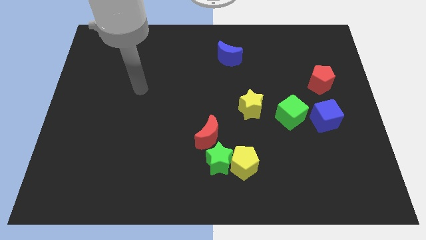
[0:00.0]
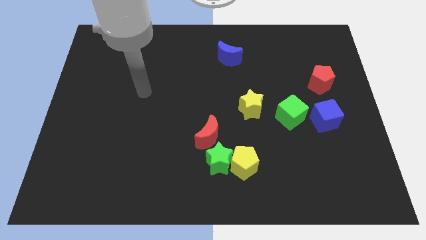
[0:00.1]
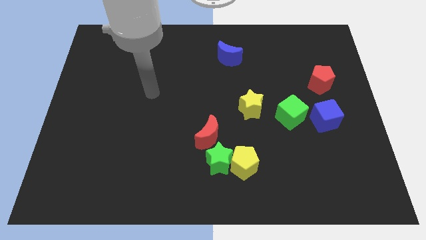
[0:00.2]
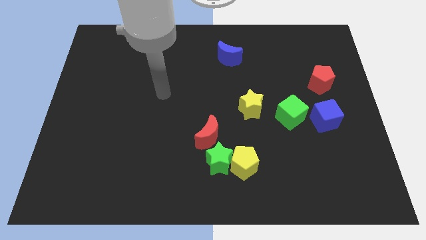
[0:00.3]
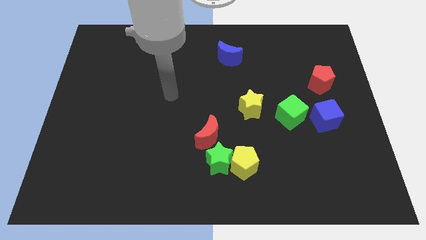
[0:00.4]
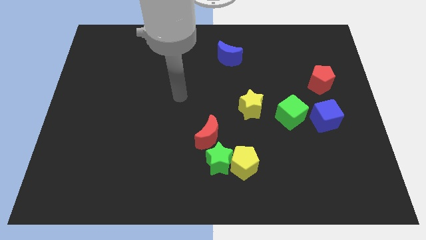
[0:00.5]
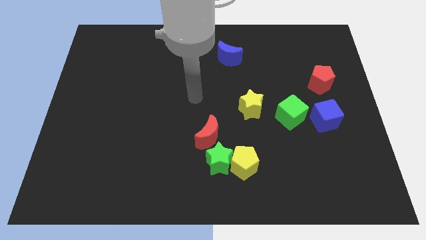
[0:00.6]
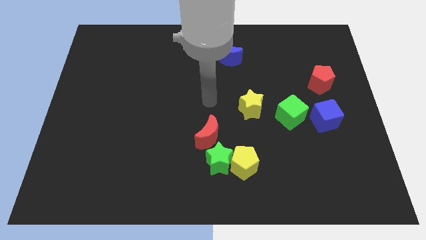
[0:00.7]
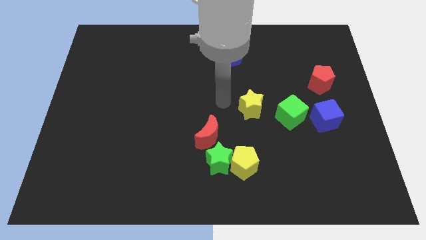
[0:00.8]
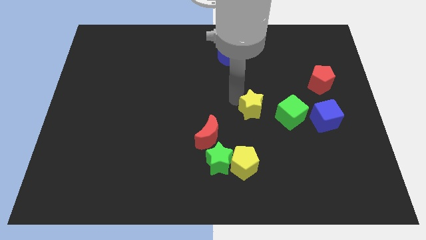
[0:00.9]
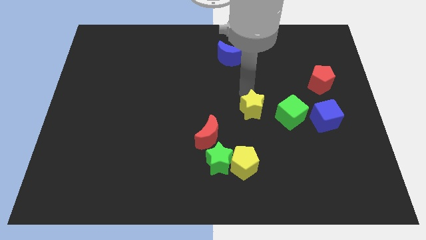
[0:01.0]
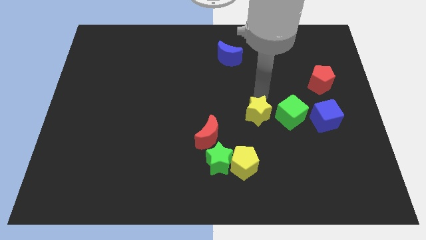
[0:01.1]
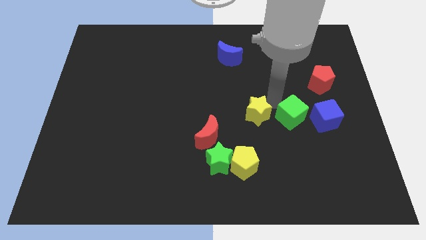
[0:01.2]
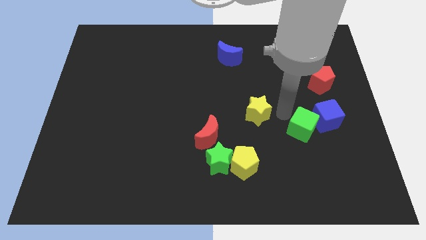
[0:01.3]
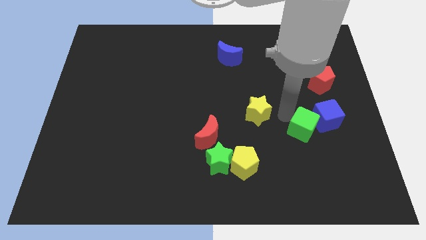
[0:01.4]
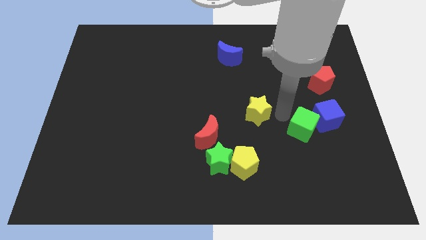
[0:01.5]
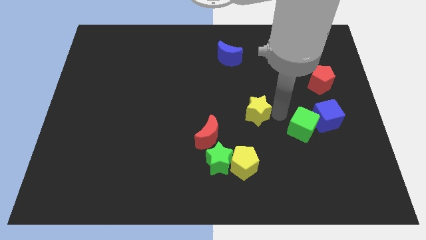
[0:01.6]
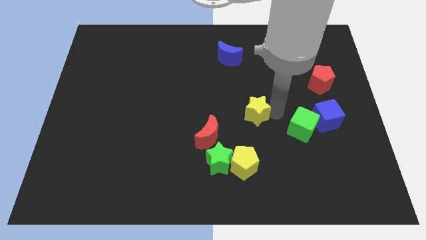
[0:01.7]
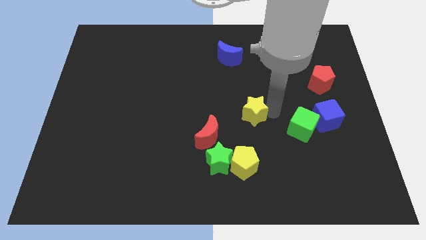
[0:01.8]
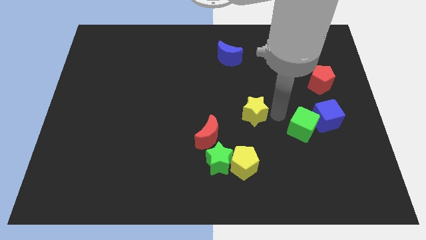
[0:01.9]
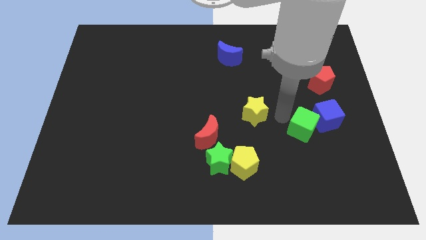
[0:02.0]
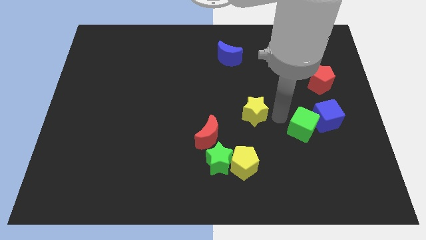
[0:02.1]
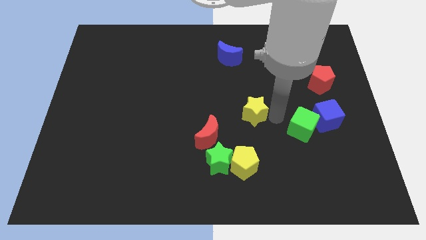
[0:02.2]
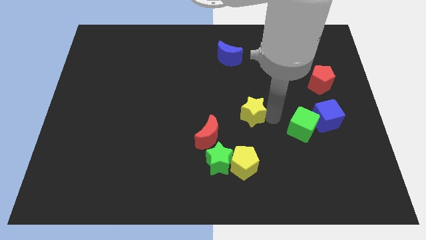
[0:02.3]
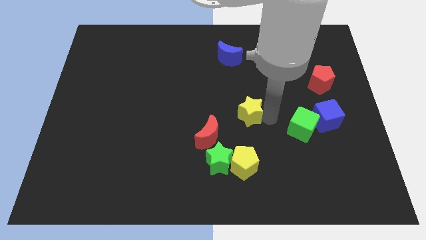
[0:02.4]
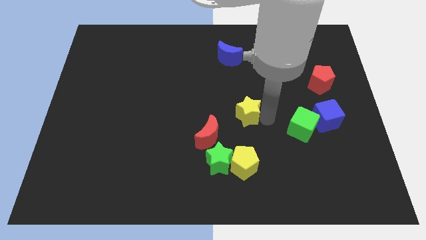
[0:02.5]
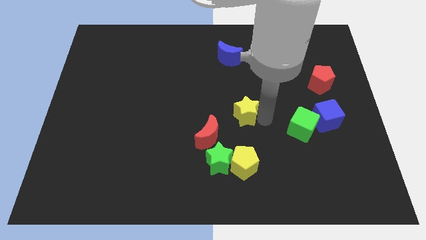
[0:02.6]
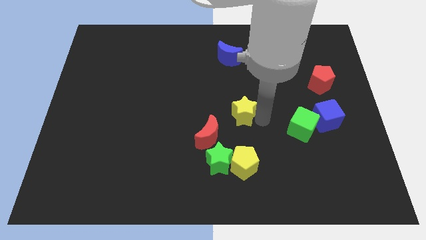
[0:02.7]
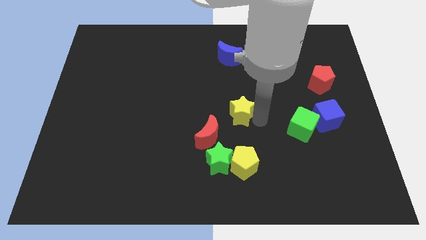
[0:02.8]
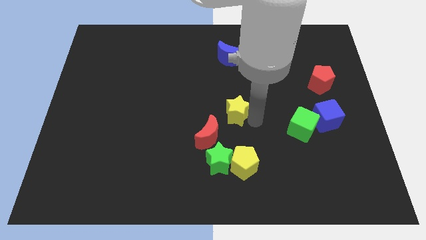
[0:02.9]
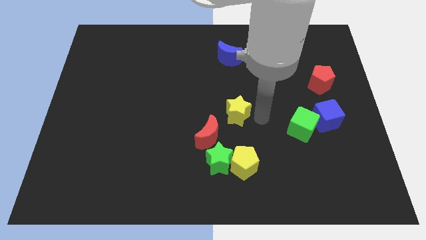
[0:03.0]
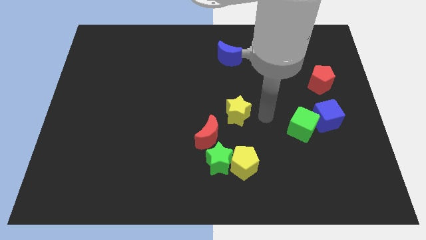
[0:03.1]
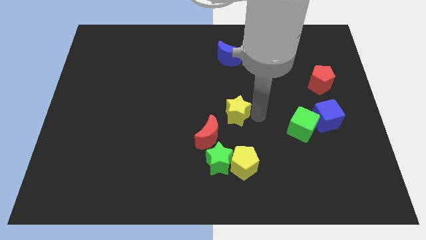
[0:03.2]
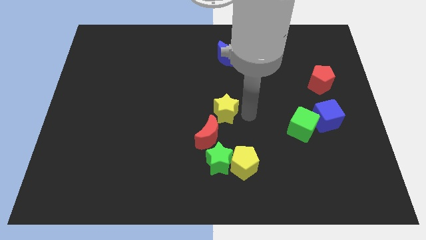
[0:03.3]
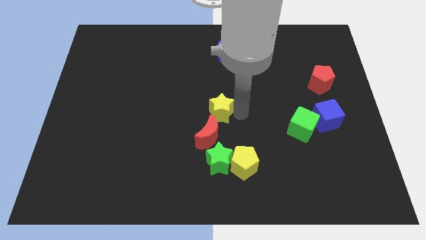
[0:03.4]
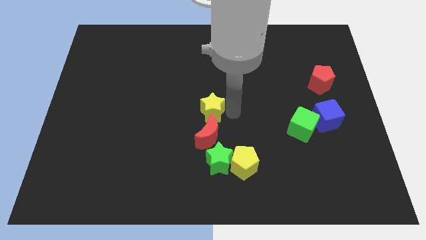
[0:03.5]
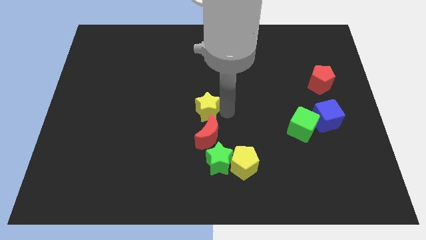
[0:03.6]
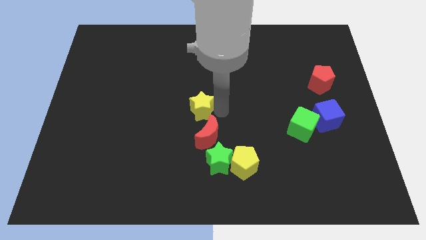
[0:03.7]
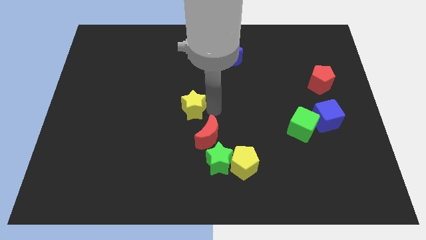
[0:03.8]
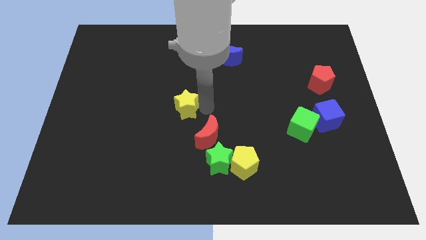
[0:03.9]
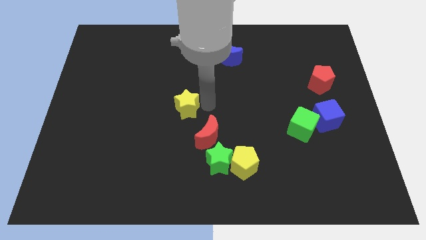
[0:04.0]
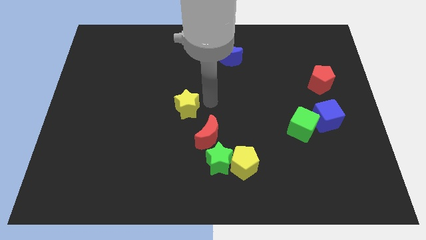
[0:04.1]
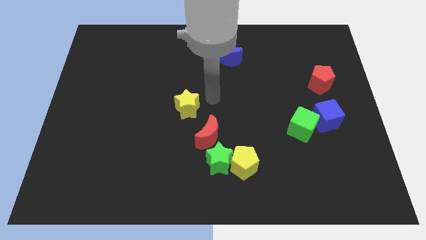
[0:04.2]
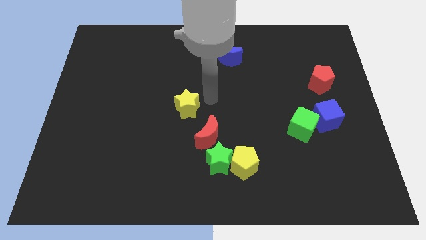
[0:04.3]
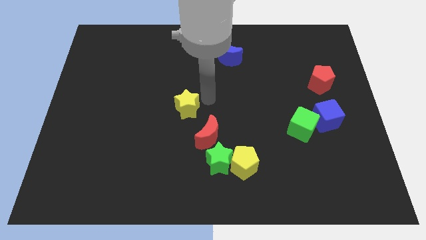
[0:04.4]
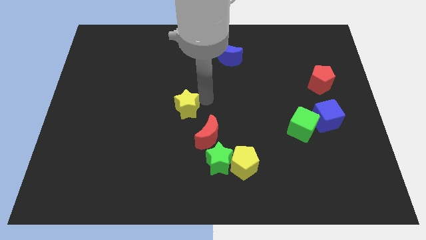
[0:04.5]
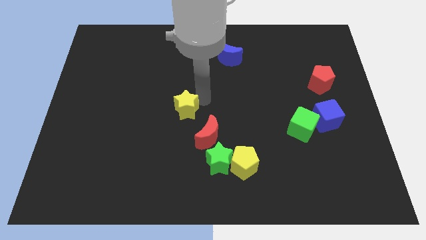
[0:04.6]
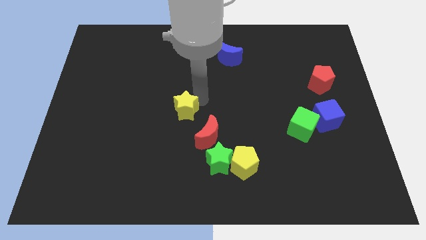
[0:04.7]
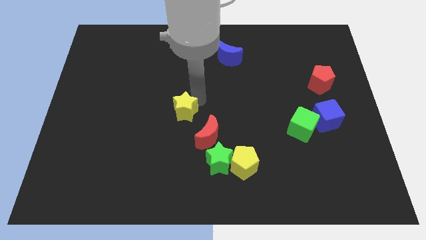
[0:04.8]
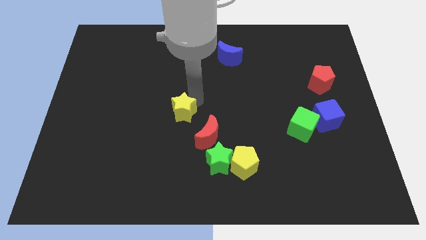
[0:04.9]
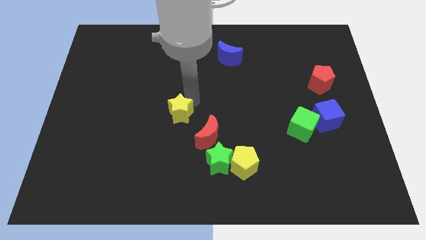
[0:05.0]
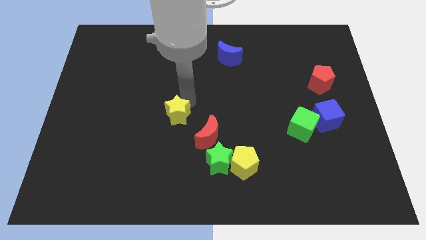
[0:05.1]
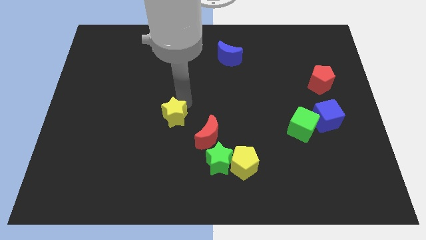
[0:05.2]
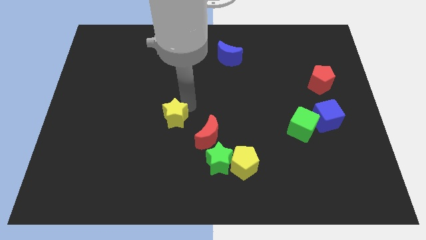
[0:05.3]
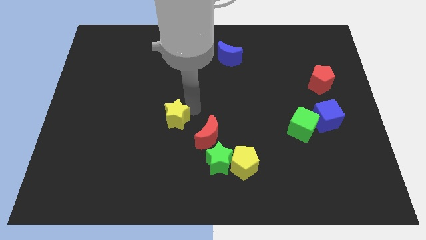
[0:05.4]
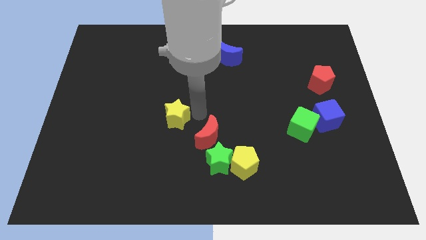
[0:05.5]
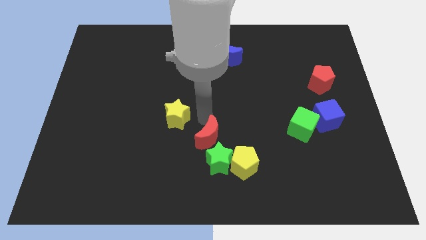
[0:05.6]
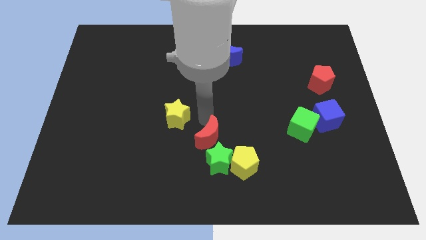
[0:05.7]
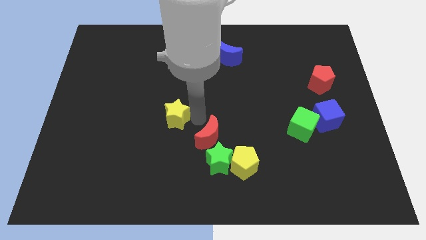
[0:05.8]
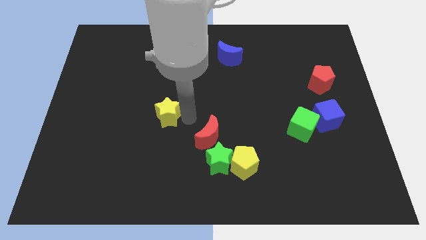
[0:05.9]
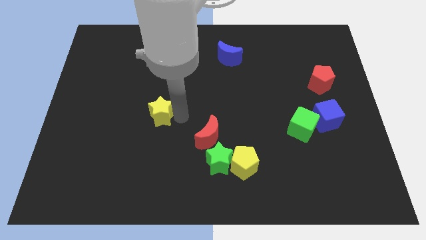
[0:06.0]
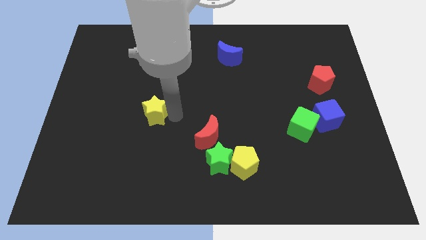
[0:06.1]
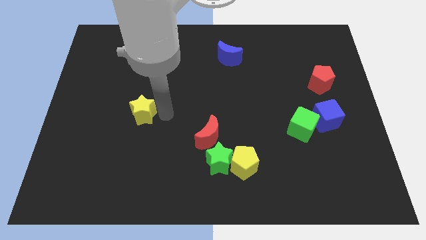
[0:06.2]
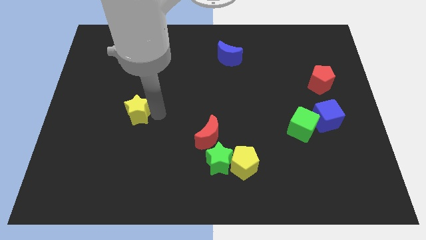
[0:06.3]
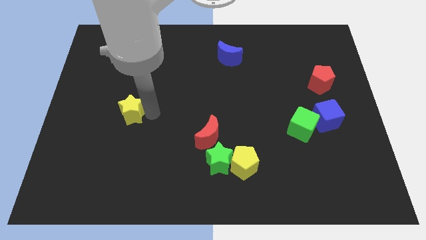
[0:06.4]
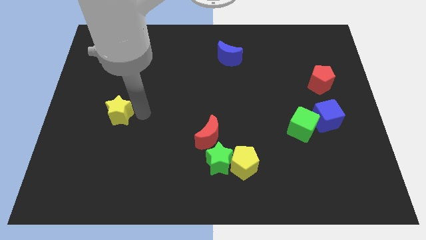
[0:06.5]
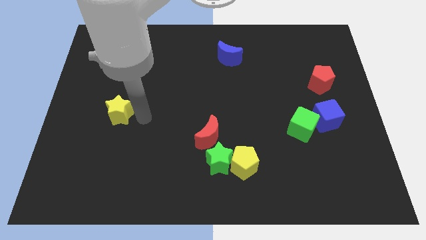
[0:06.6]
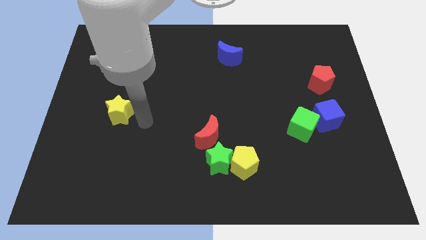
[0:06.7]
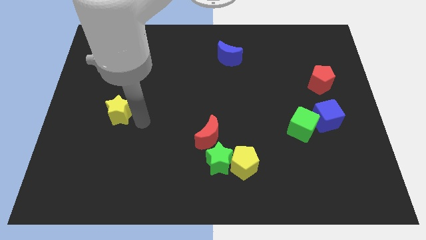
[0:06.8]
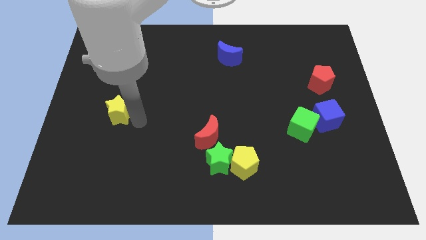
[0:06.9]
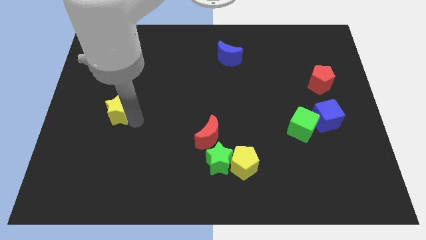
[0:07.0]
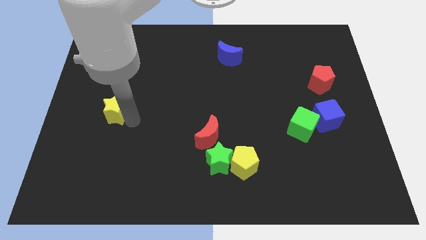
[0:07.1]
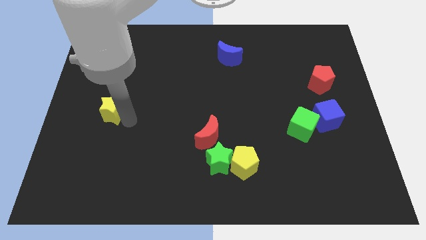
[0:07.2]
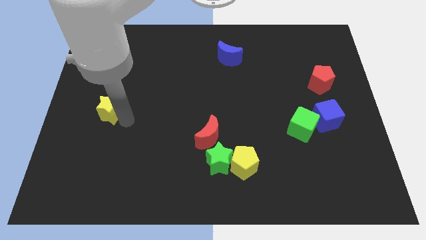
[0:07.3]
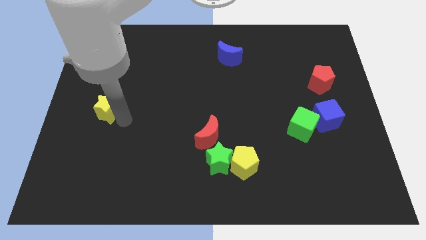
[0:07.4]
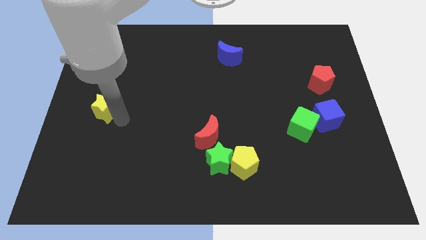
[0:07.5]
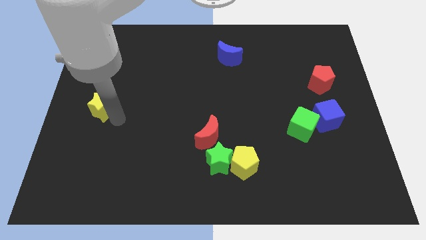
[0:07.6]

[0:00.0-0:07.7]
push the yellow star to the center left

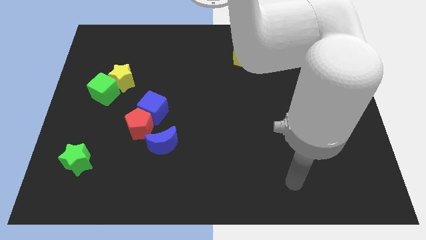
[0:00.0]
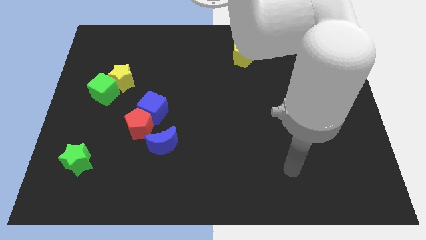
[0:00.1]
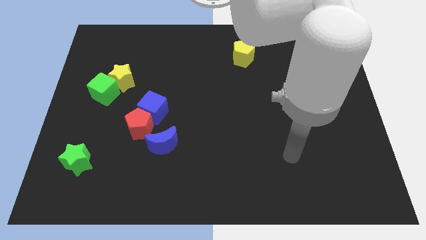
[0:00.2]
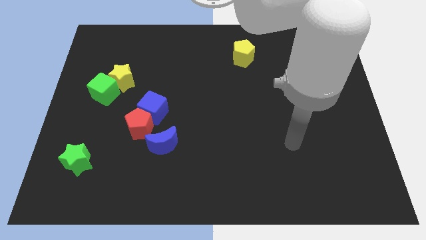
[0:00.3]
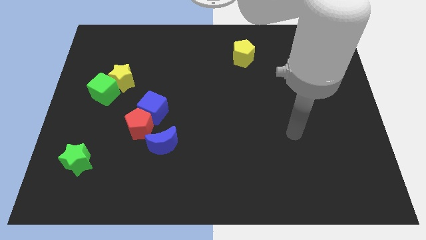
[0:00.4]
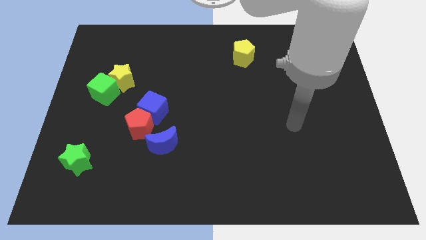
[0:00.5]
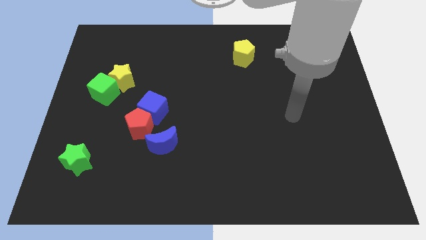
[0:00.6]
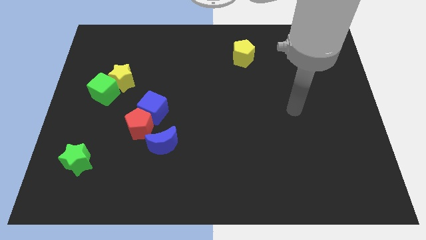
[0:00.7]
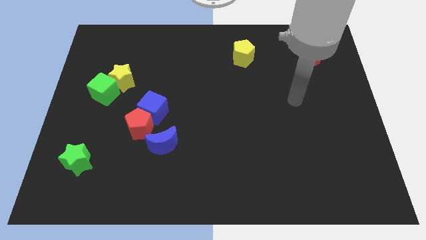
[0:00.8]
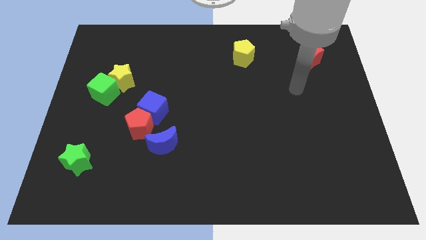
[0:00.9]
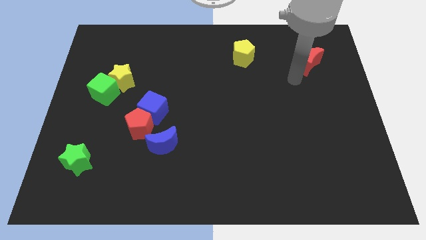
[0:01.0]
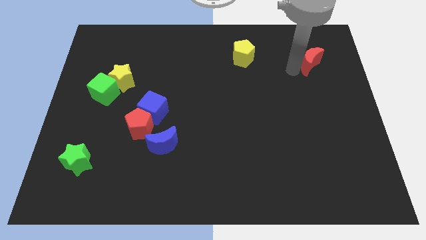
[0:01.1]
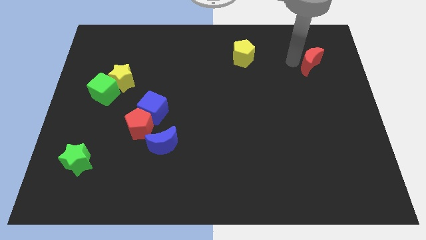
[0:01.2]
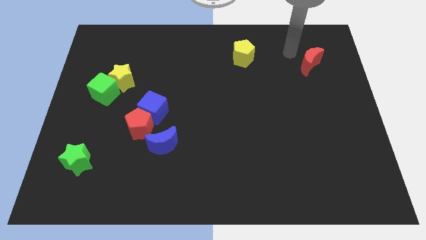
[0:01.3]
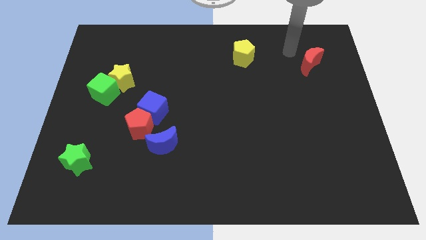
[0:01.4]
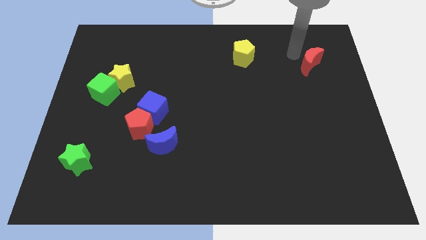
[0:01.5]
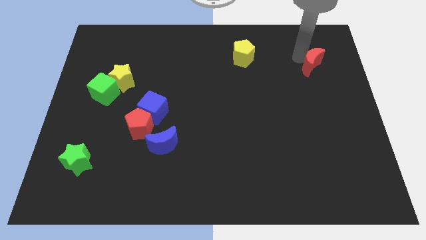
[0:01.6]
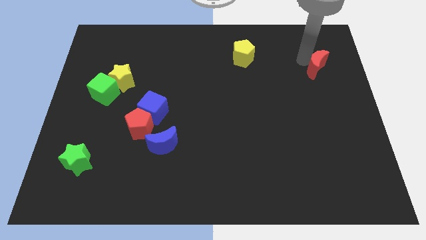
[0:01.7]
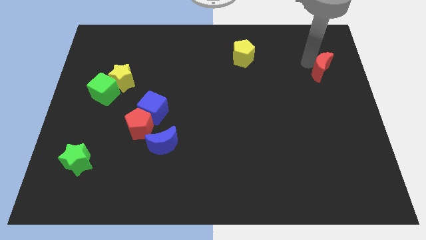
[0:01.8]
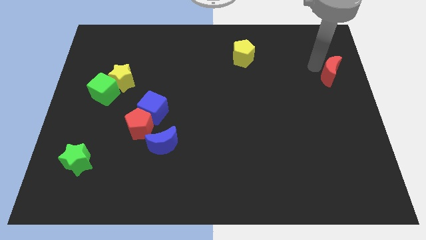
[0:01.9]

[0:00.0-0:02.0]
push the red moon to the right side of the board
